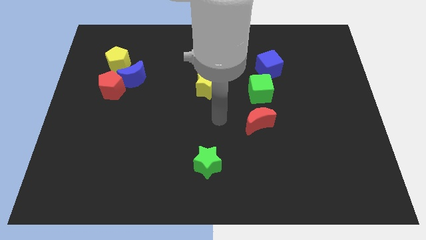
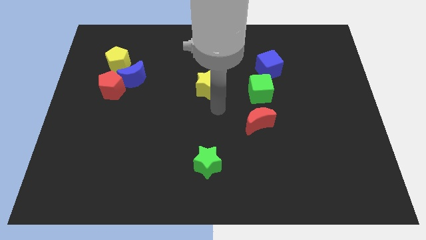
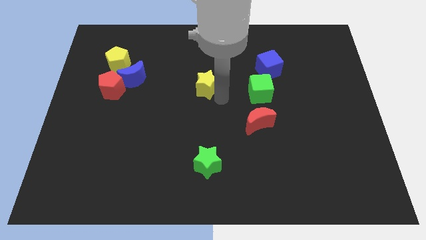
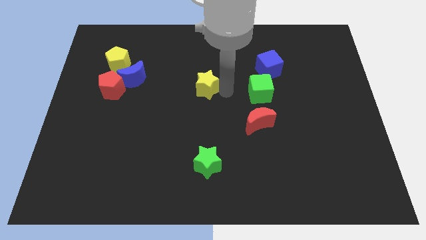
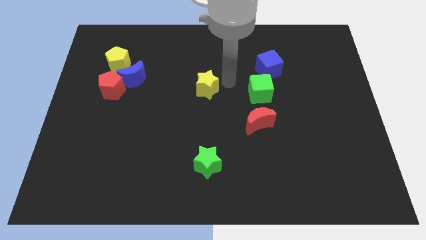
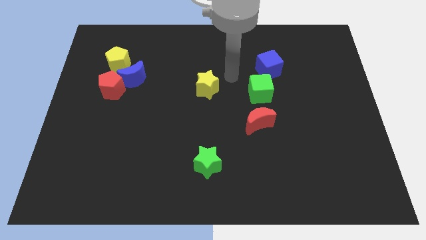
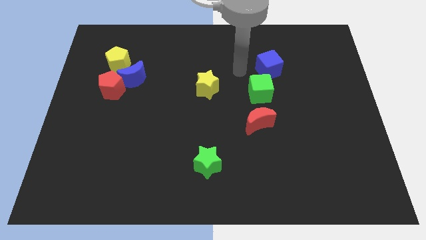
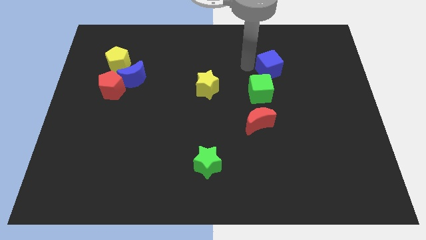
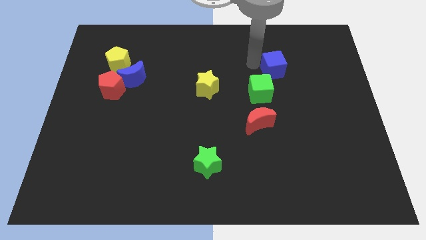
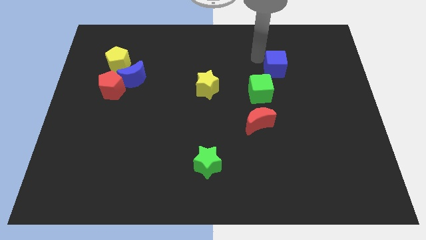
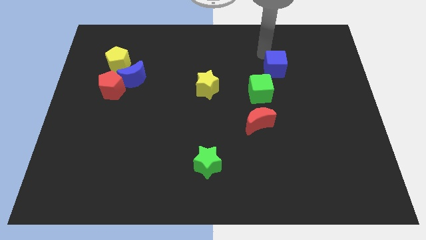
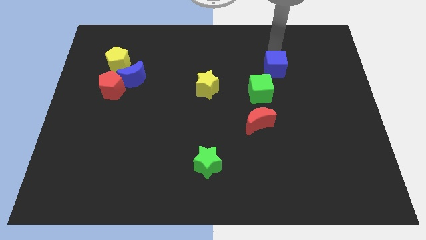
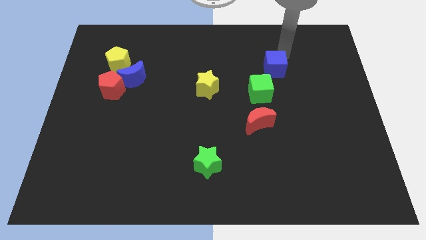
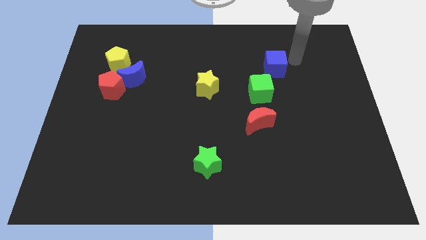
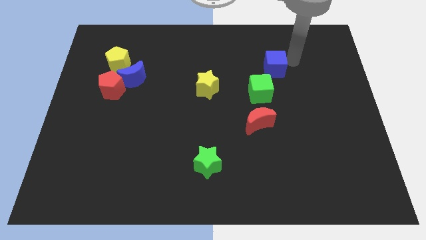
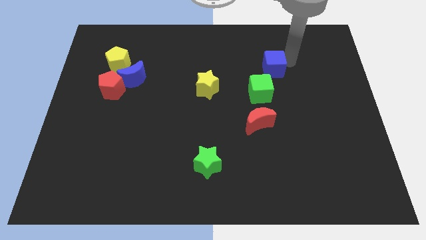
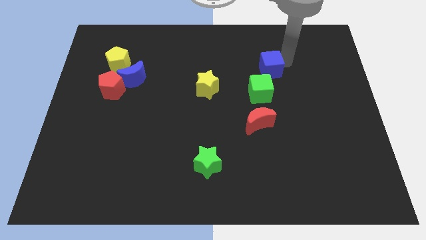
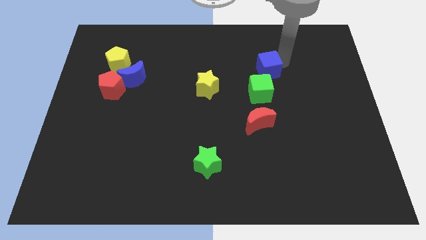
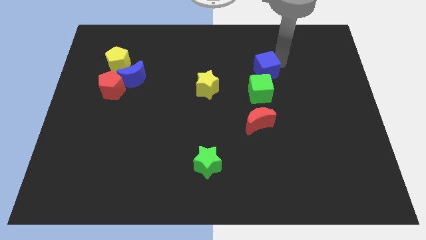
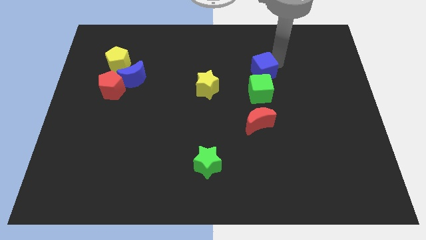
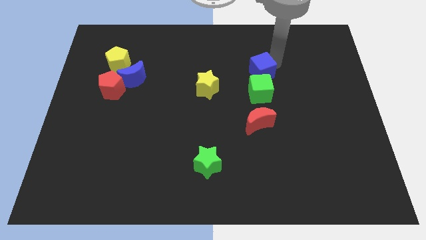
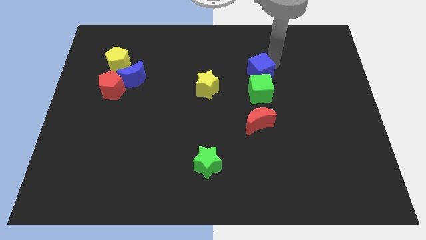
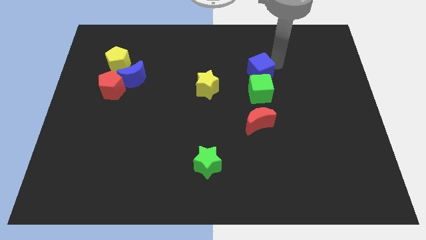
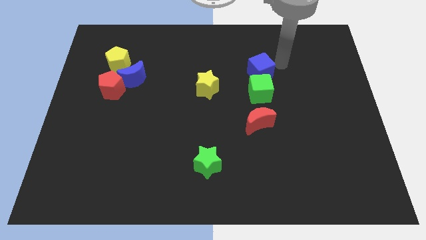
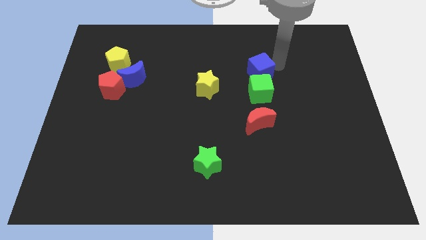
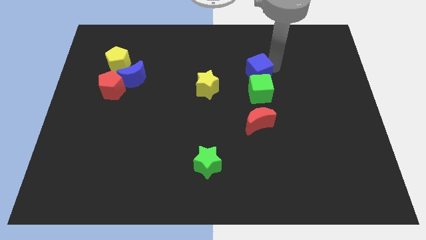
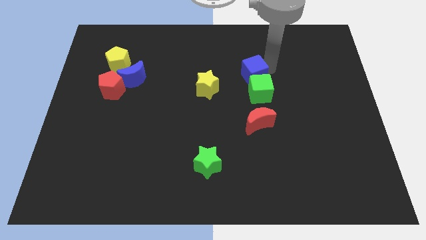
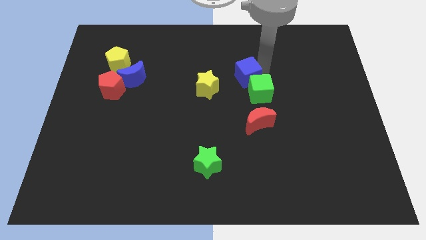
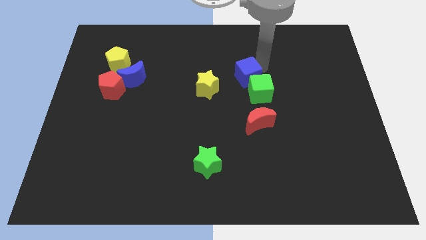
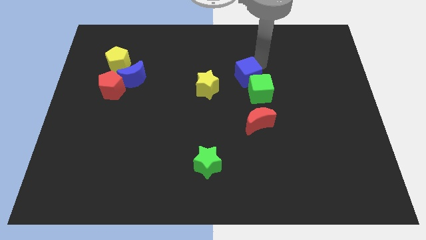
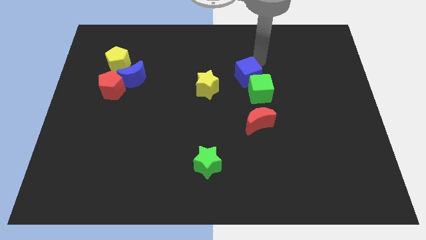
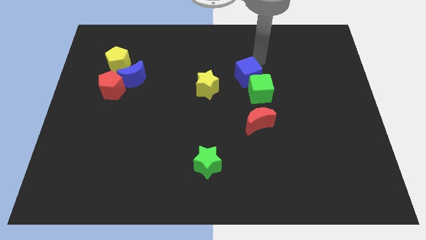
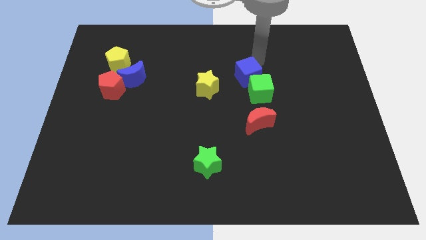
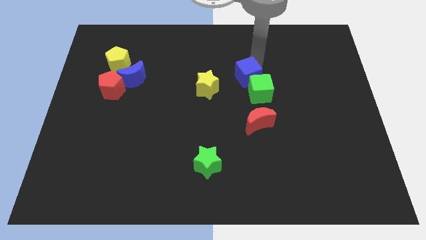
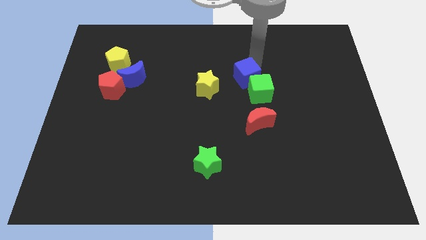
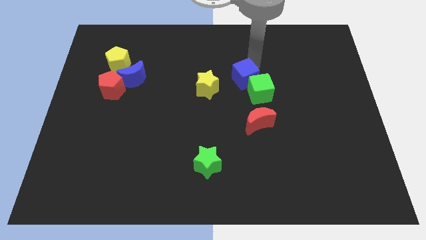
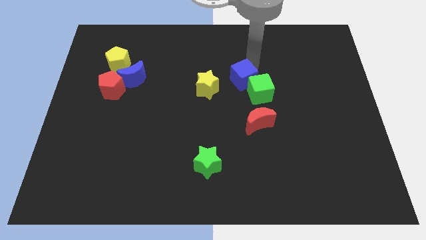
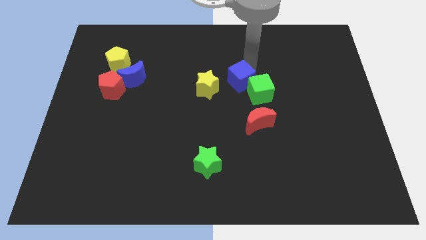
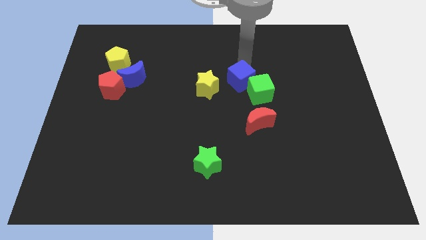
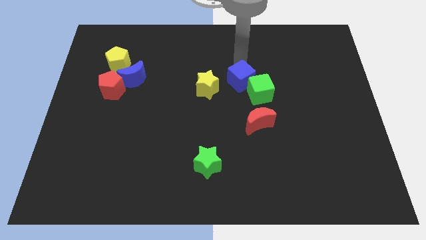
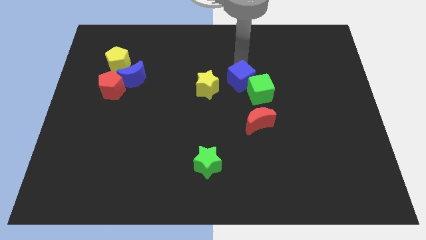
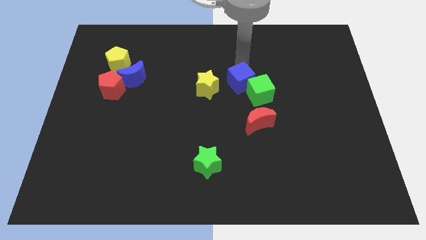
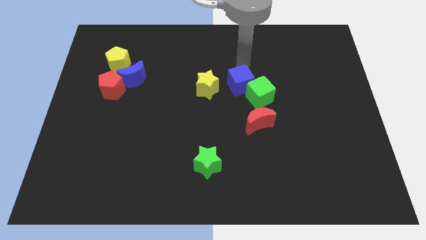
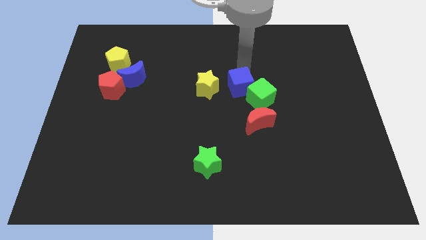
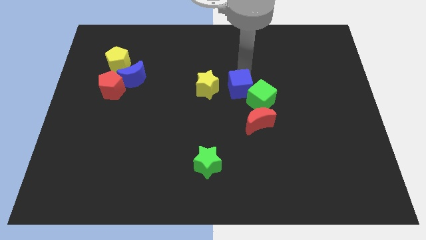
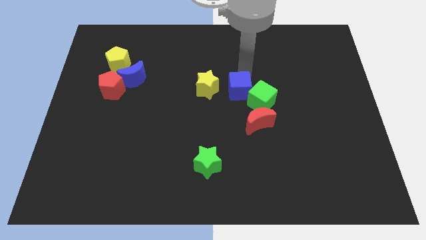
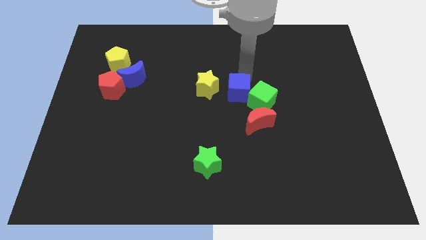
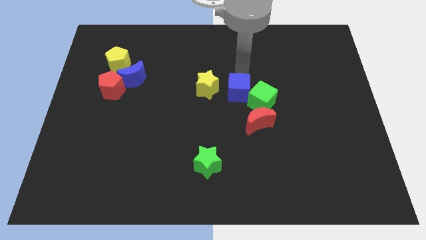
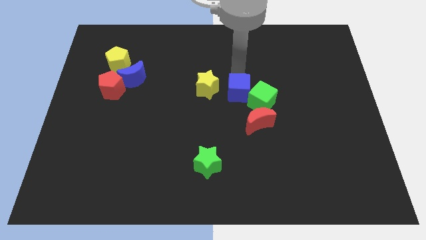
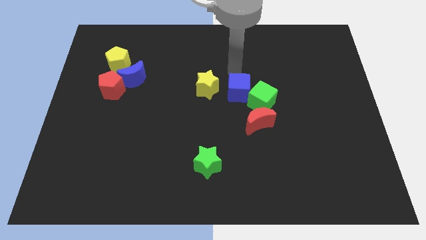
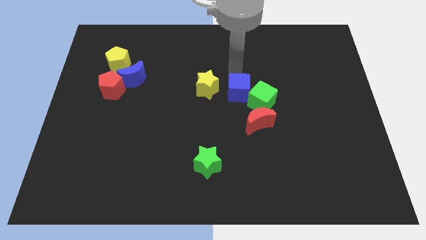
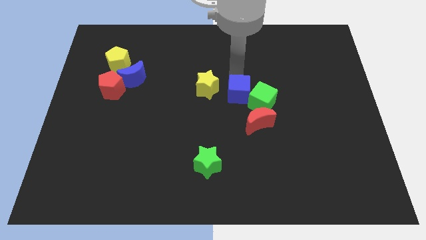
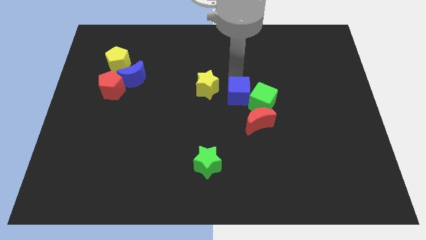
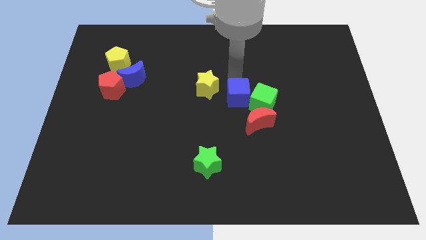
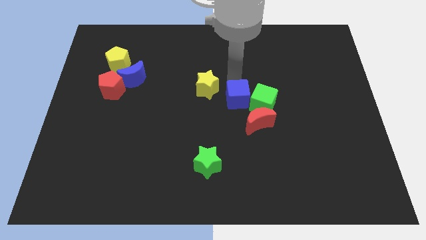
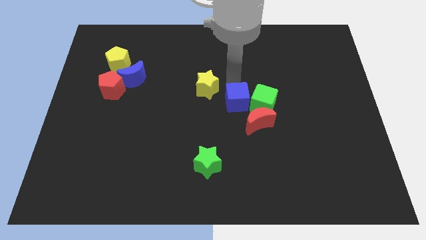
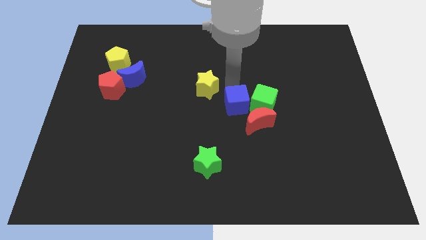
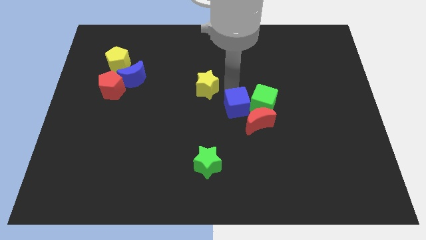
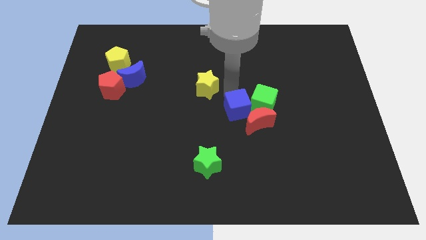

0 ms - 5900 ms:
slide the blue cube towards the red moon

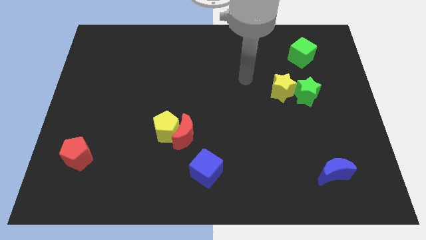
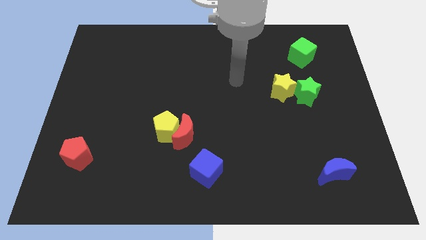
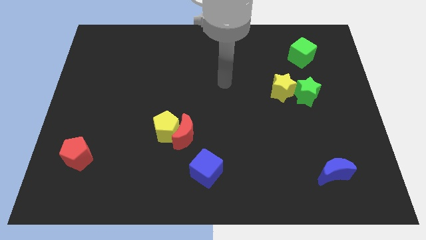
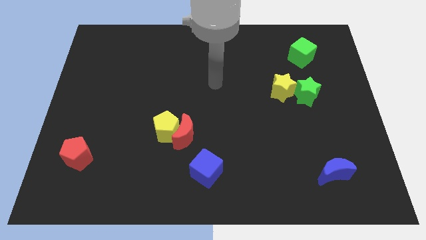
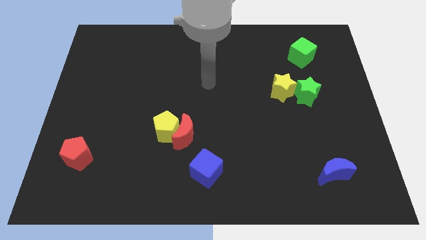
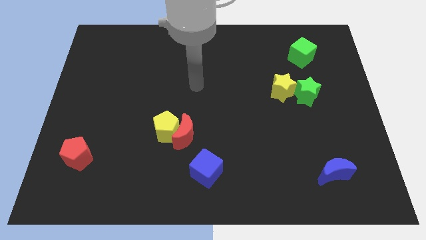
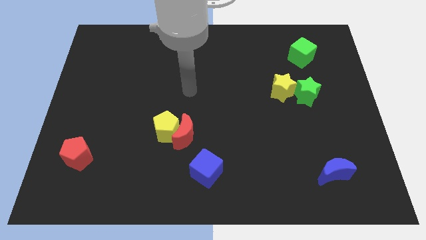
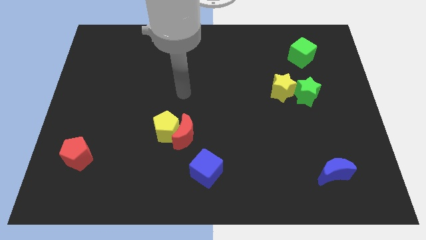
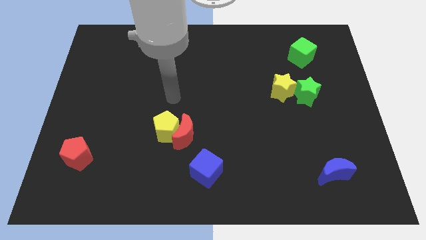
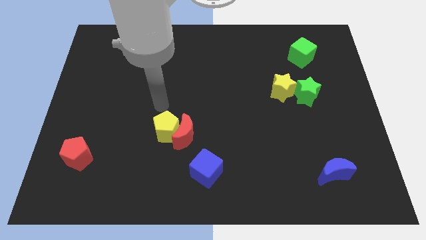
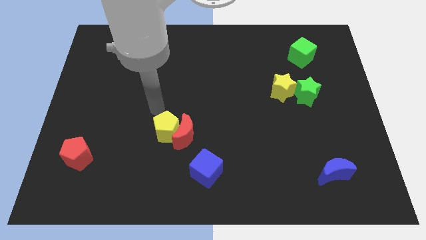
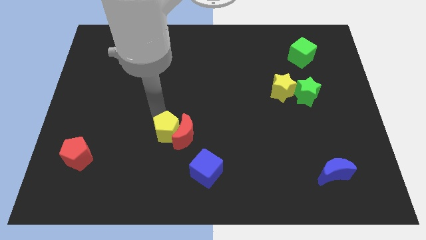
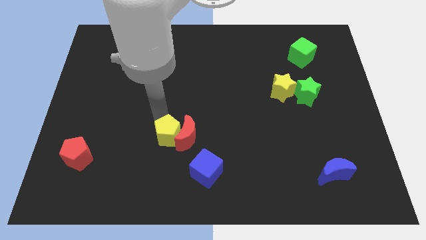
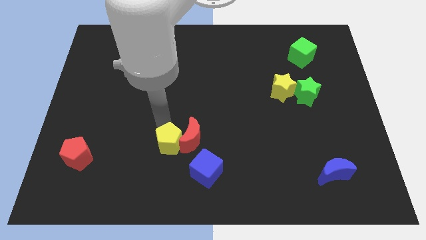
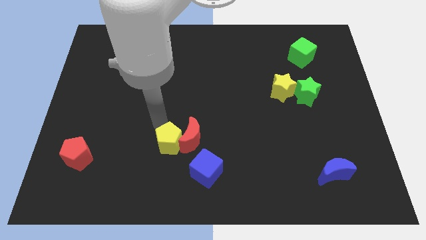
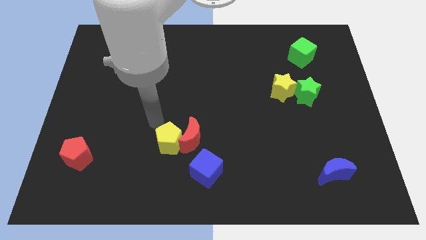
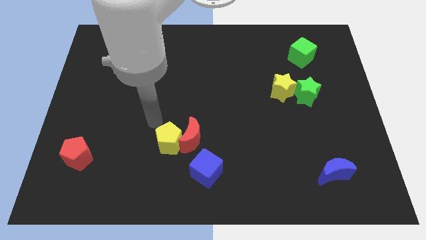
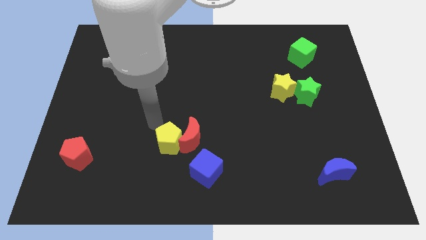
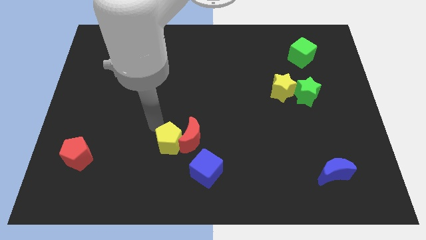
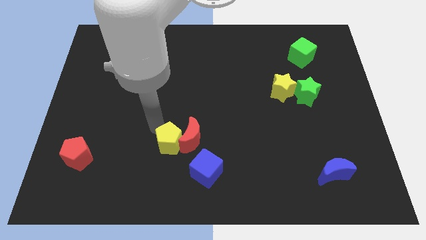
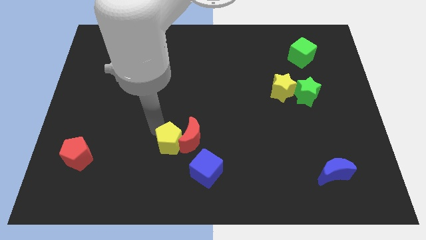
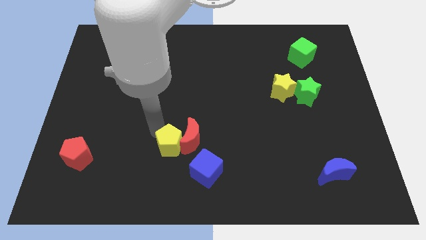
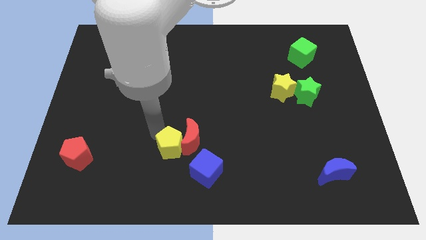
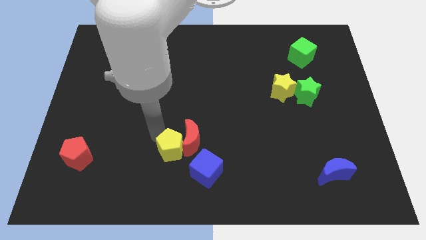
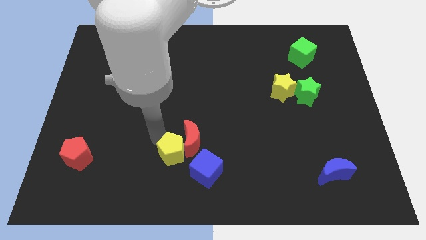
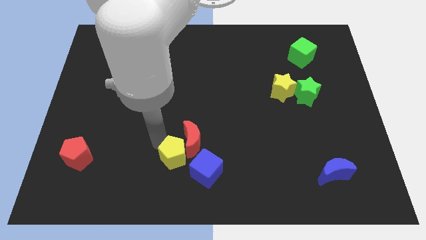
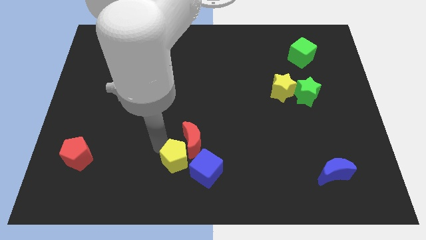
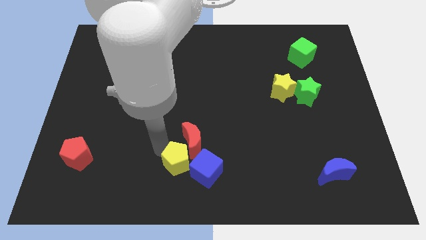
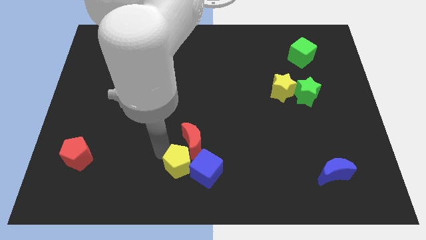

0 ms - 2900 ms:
put the yellow pentagon towards the blue cube
